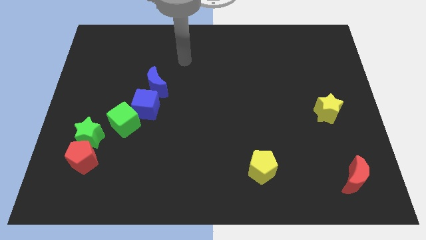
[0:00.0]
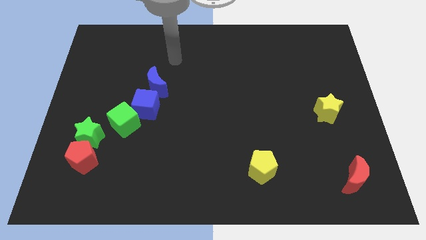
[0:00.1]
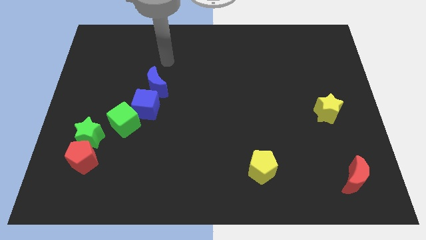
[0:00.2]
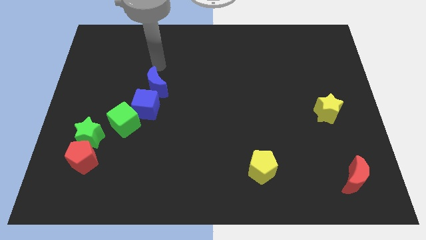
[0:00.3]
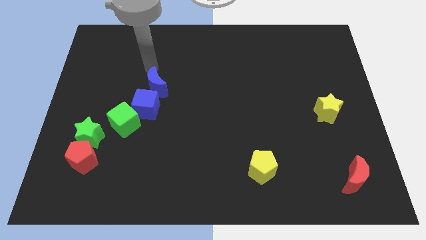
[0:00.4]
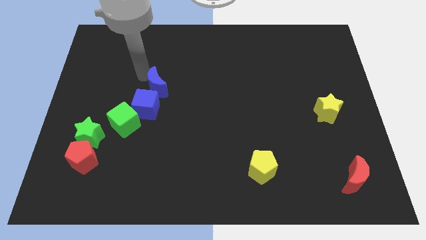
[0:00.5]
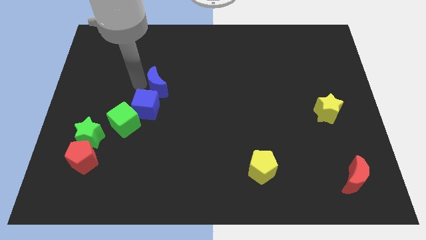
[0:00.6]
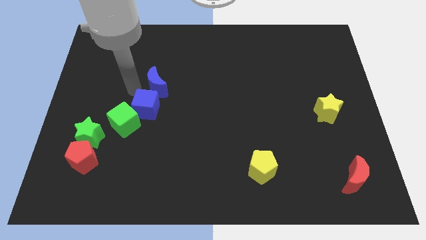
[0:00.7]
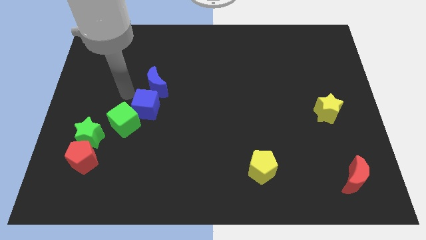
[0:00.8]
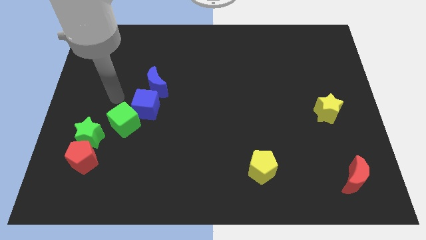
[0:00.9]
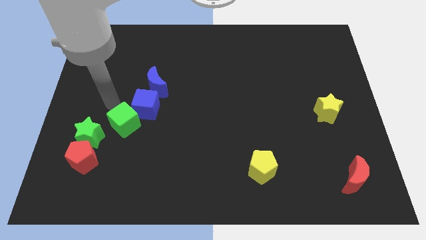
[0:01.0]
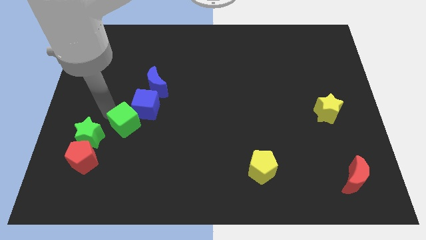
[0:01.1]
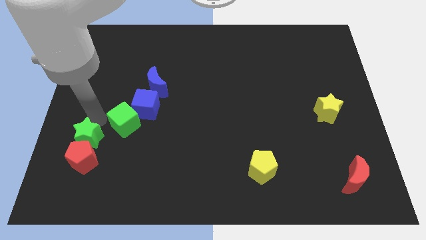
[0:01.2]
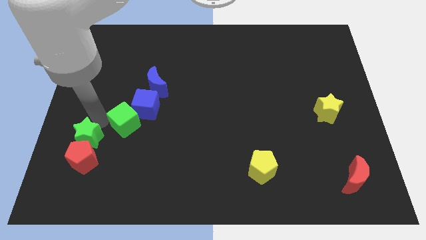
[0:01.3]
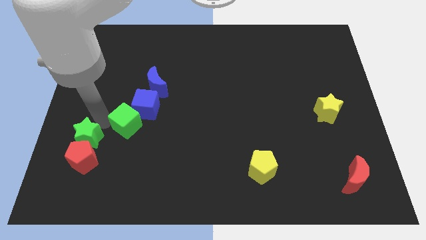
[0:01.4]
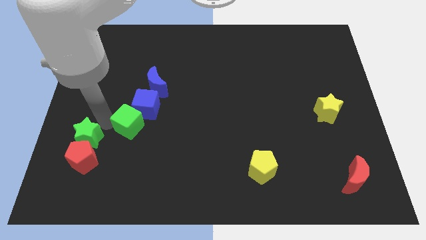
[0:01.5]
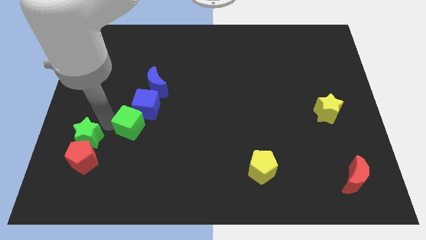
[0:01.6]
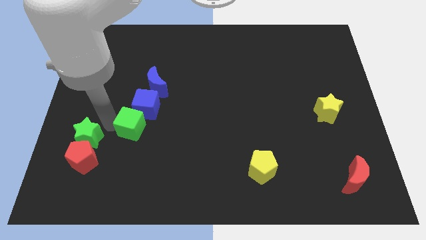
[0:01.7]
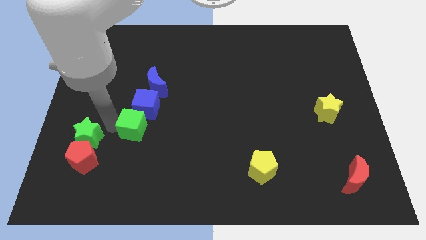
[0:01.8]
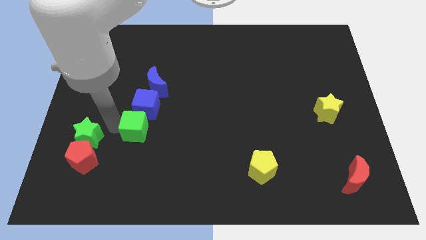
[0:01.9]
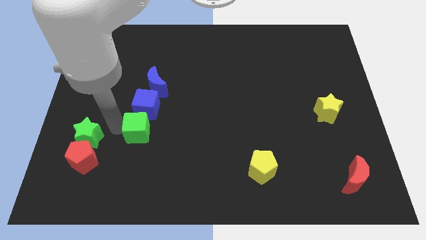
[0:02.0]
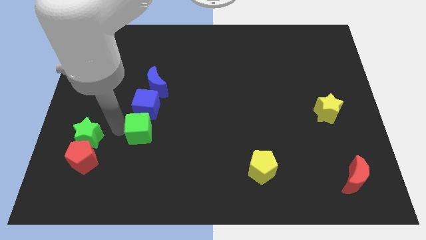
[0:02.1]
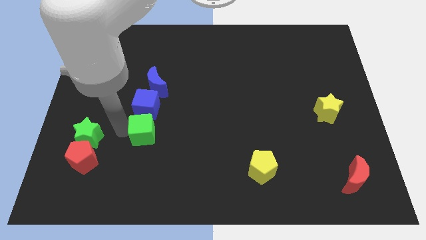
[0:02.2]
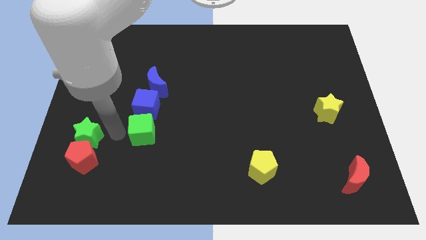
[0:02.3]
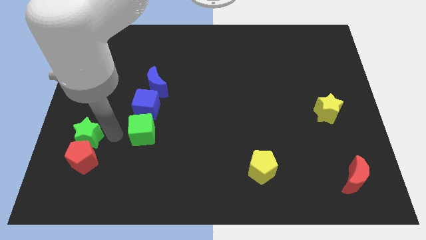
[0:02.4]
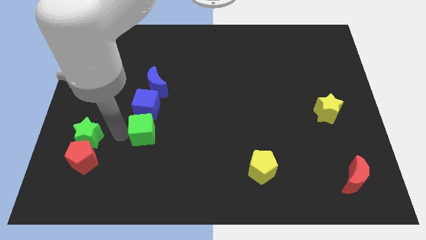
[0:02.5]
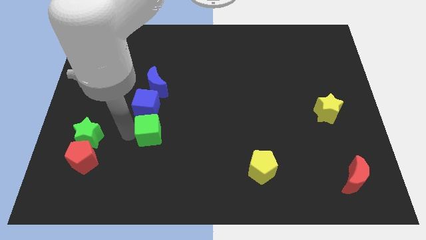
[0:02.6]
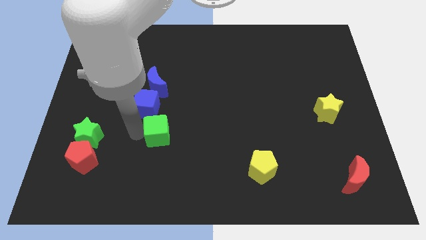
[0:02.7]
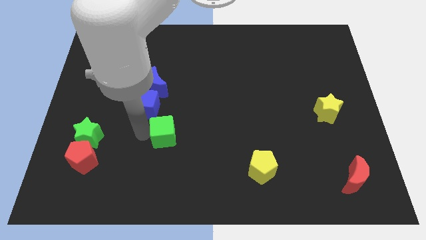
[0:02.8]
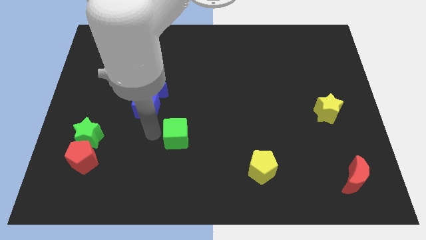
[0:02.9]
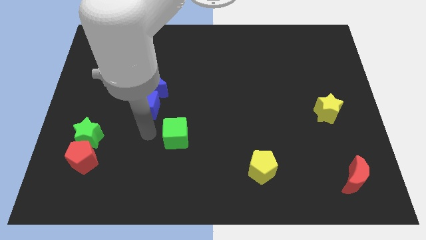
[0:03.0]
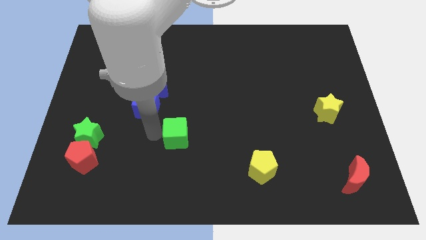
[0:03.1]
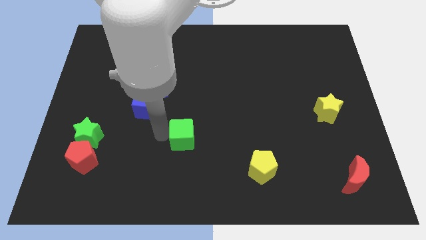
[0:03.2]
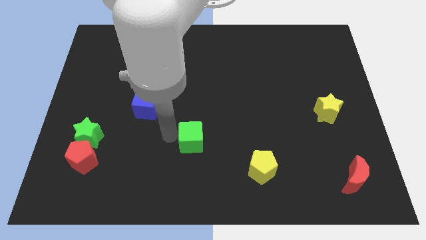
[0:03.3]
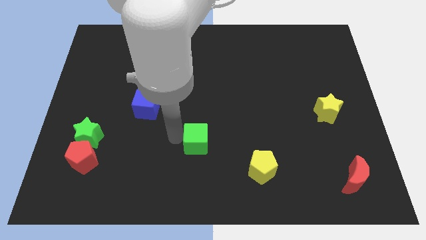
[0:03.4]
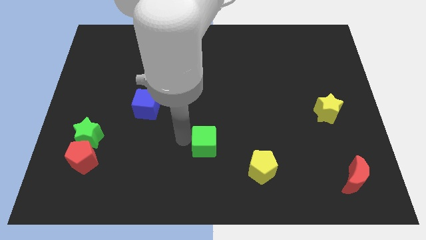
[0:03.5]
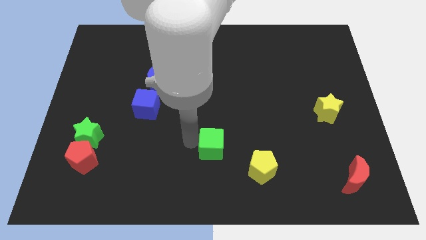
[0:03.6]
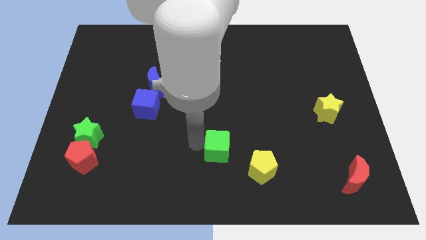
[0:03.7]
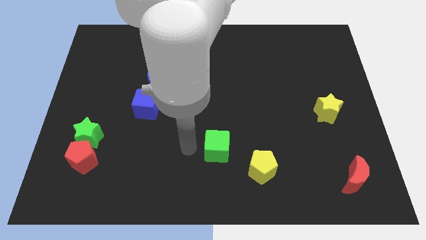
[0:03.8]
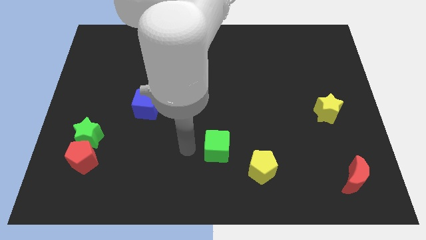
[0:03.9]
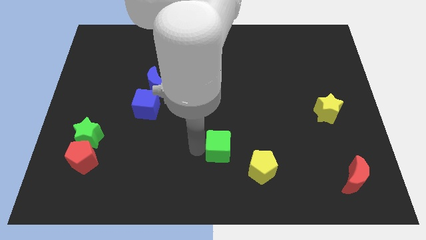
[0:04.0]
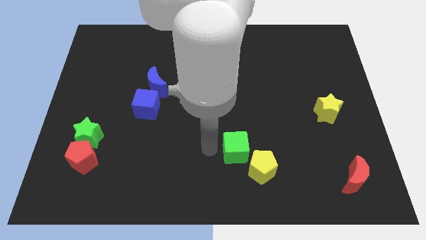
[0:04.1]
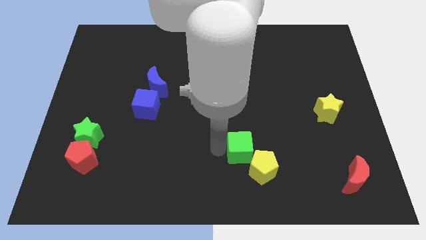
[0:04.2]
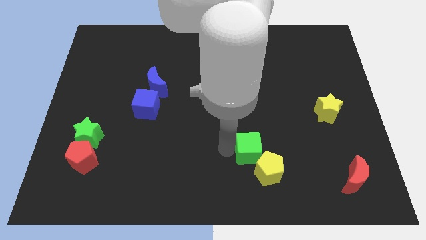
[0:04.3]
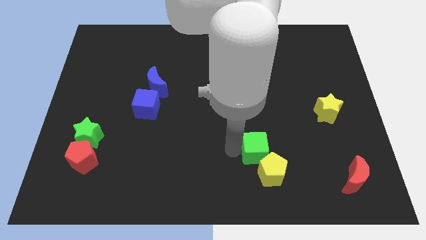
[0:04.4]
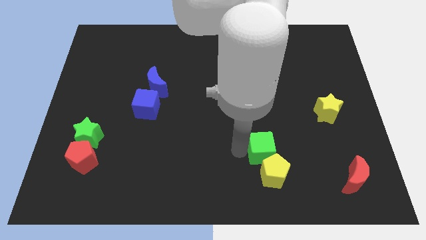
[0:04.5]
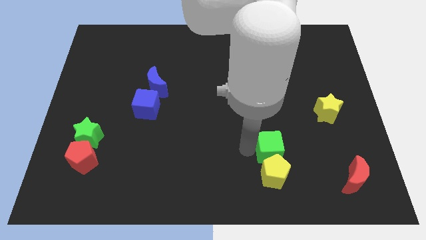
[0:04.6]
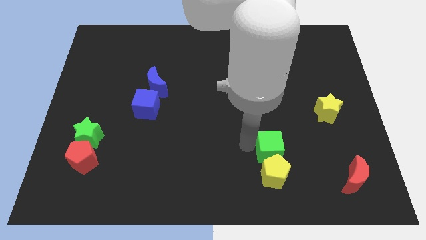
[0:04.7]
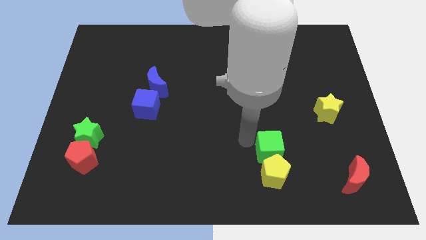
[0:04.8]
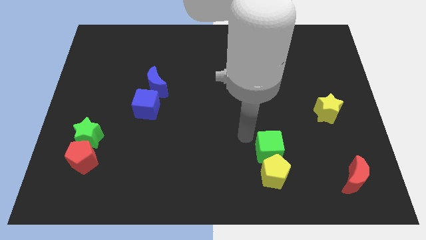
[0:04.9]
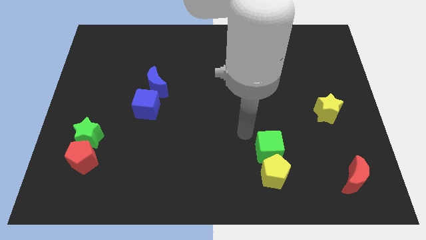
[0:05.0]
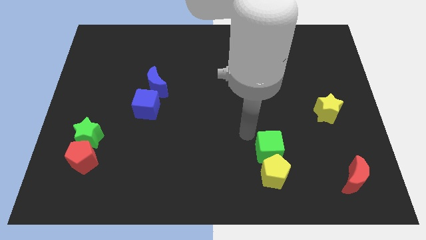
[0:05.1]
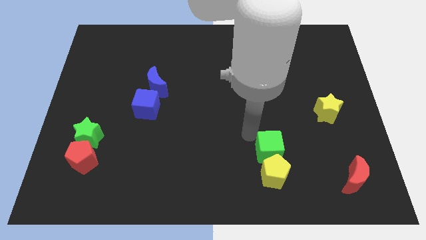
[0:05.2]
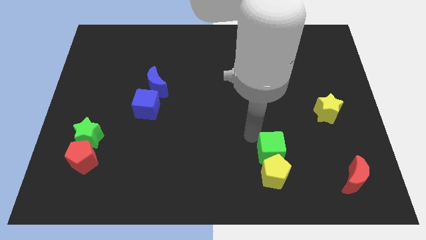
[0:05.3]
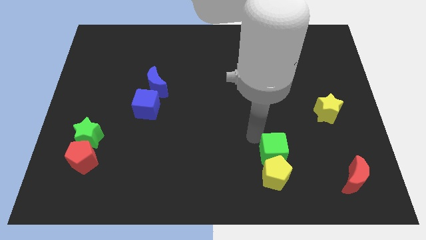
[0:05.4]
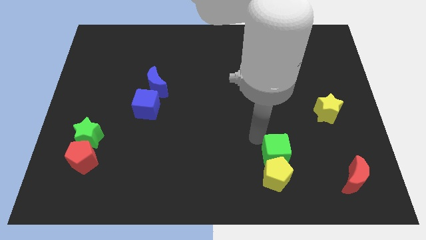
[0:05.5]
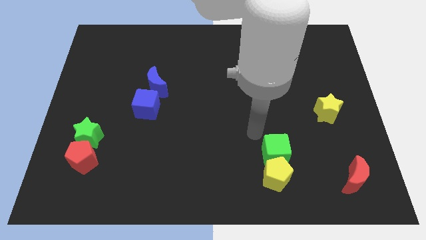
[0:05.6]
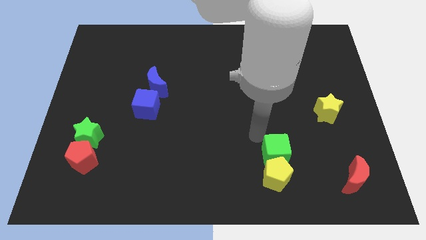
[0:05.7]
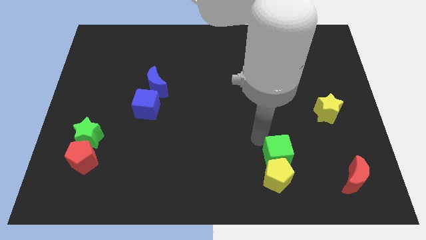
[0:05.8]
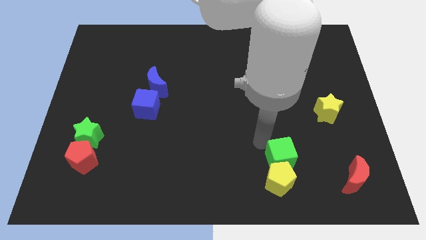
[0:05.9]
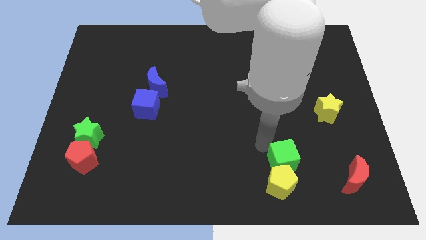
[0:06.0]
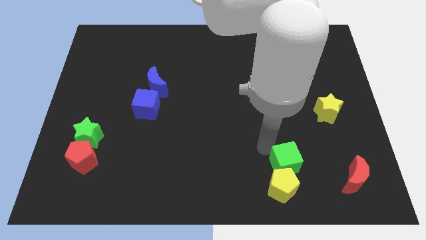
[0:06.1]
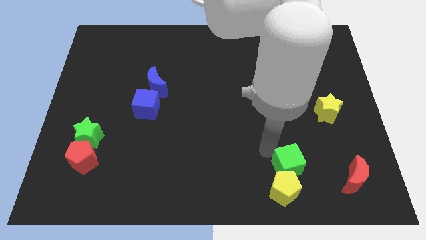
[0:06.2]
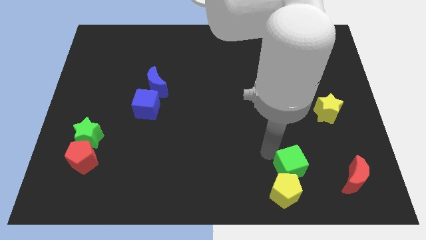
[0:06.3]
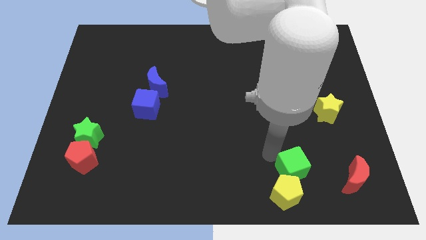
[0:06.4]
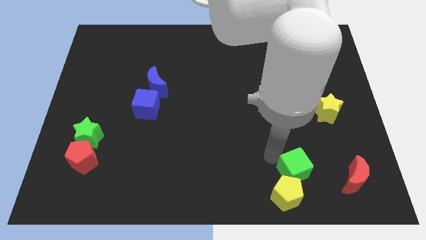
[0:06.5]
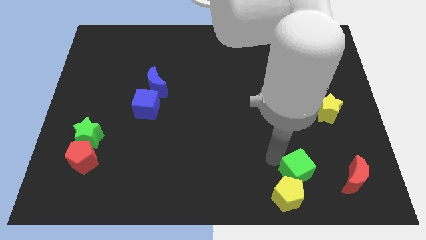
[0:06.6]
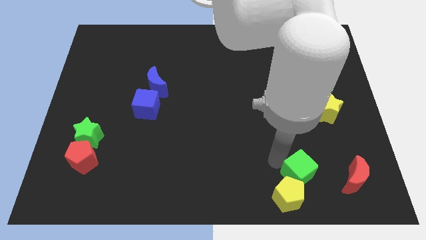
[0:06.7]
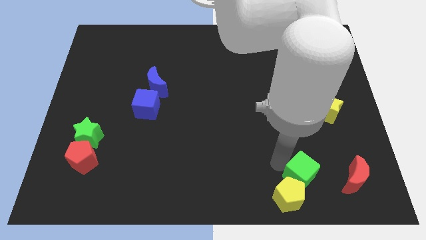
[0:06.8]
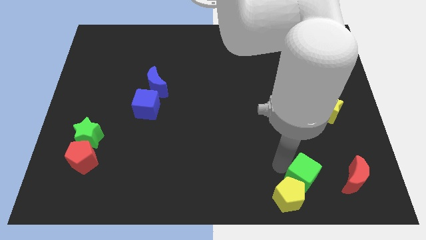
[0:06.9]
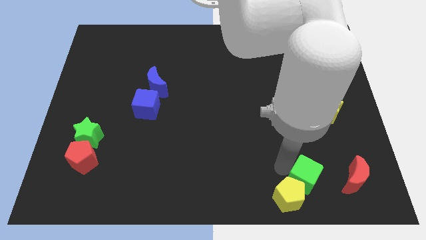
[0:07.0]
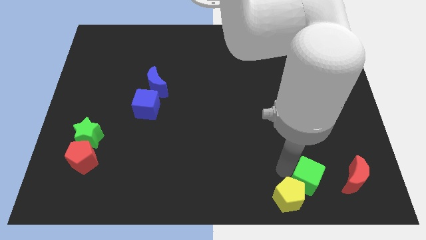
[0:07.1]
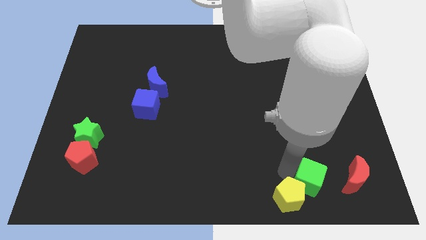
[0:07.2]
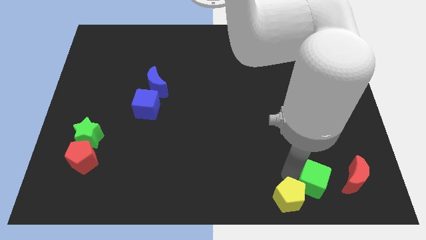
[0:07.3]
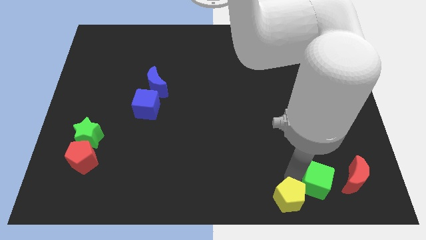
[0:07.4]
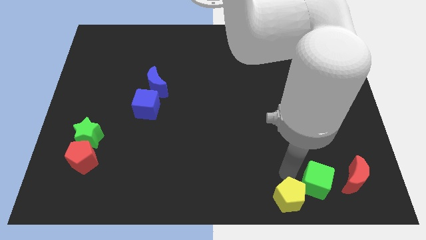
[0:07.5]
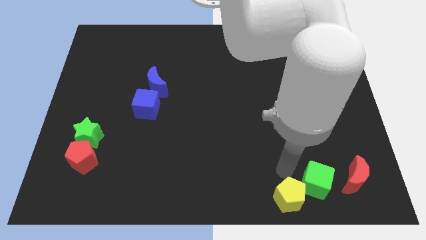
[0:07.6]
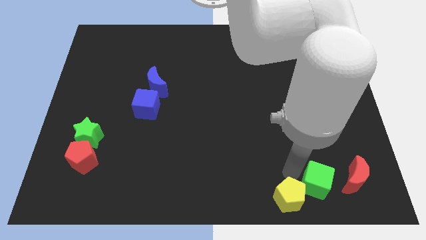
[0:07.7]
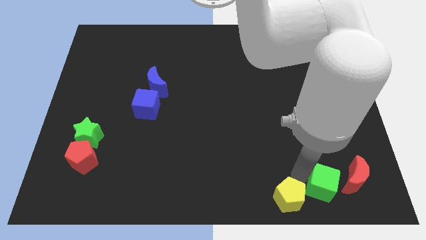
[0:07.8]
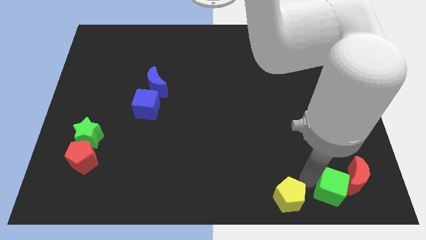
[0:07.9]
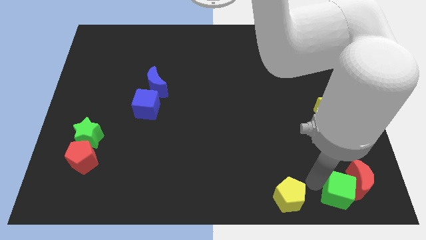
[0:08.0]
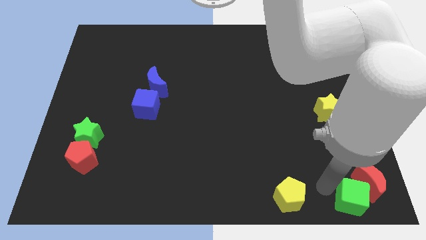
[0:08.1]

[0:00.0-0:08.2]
move the green cube to the lower right corner
